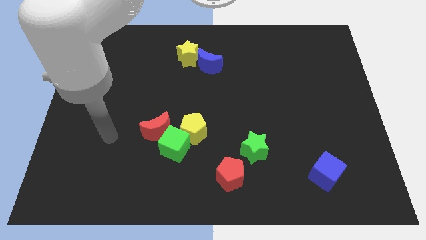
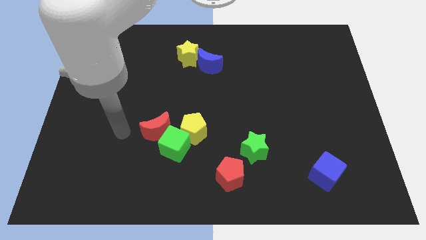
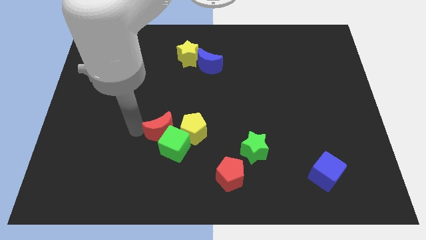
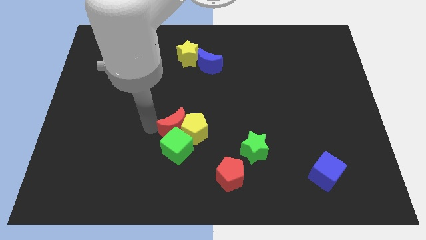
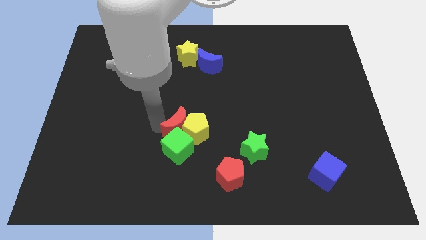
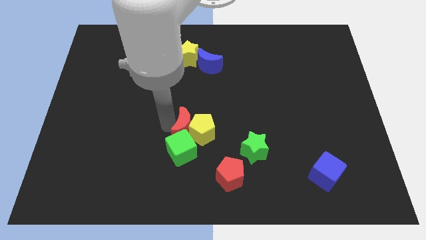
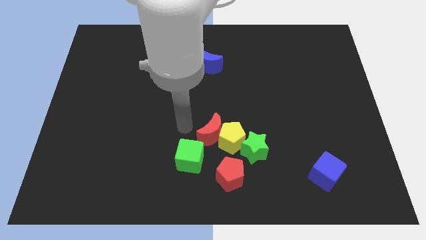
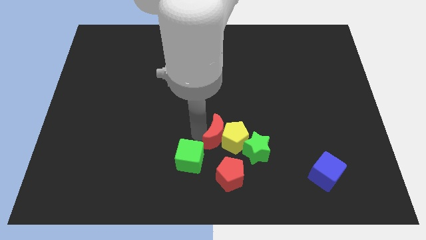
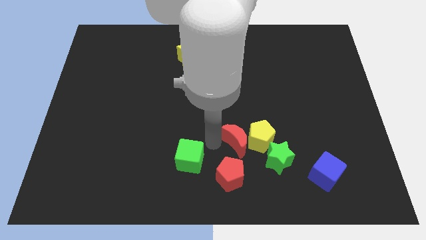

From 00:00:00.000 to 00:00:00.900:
separate the green cube from the yellow pentagon and red moon

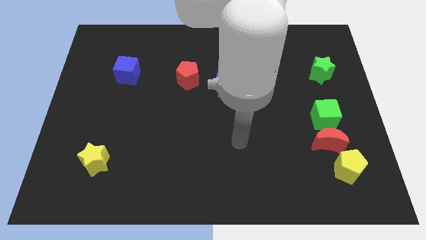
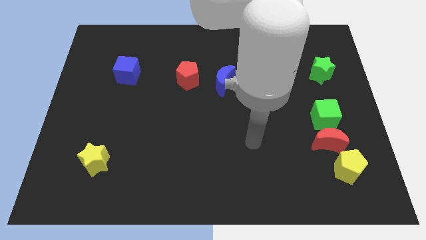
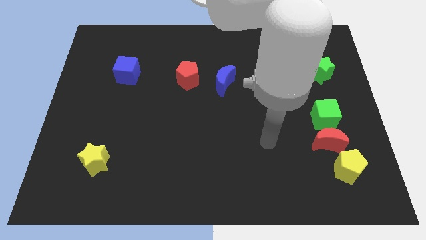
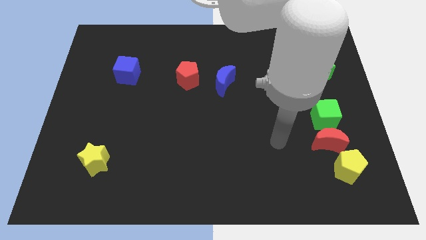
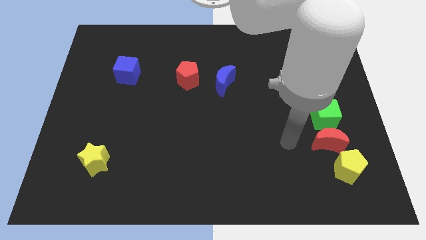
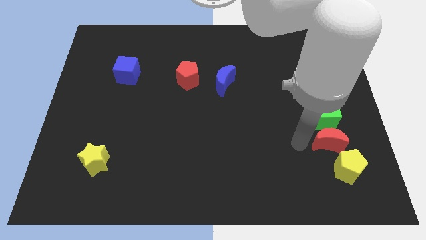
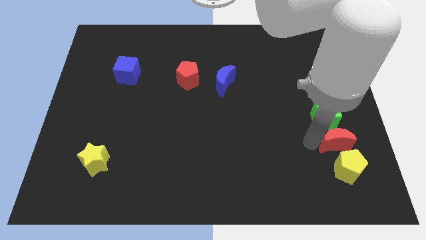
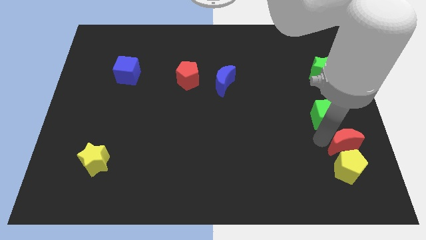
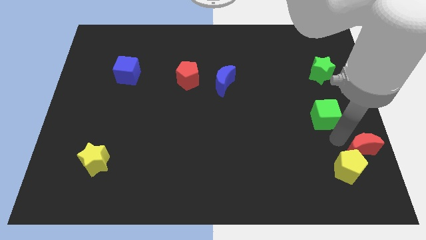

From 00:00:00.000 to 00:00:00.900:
separate the green cube from the red moon

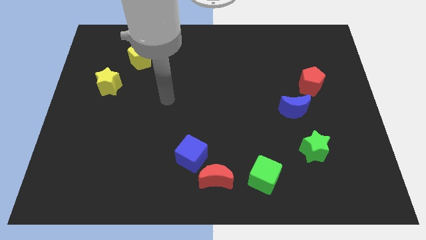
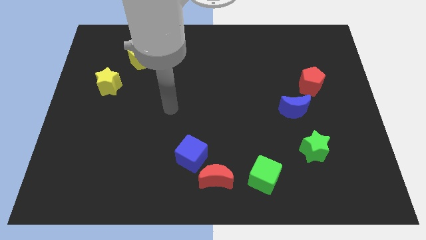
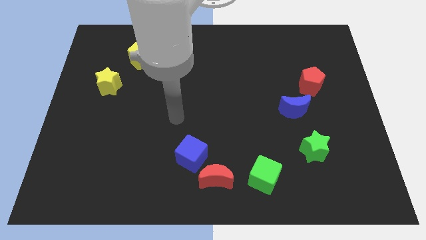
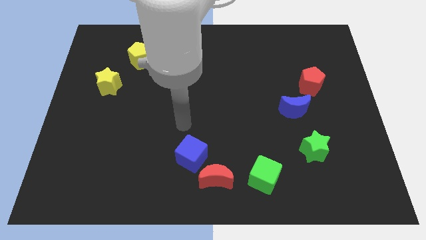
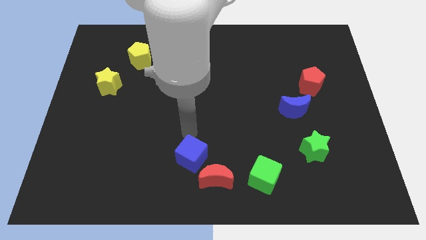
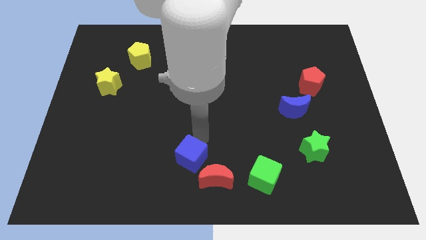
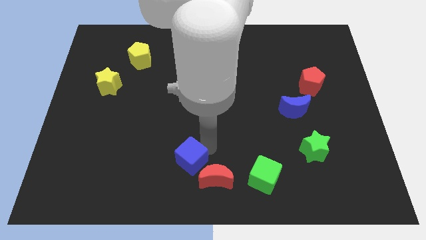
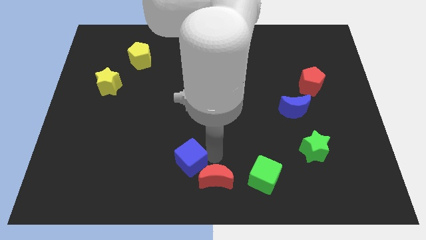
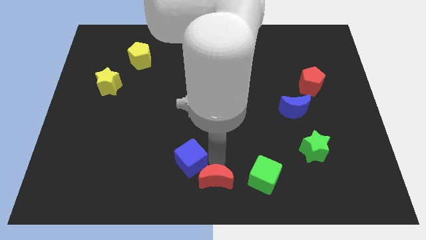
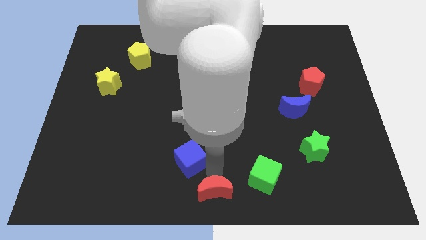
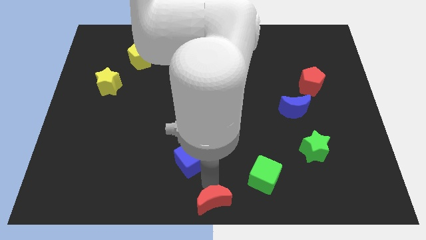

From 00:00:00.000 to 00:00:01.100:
move the blue cube away from the red moon

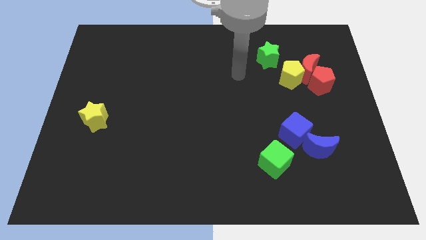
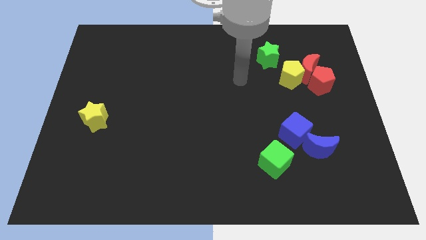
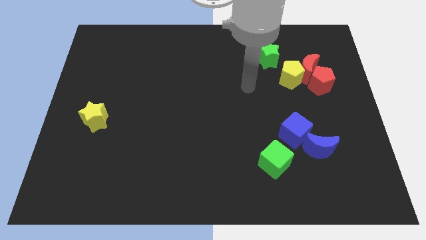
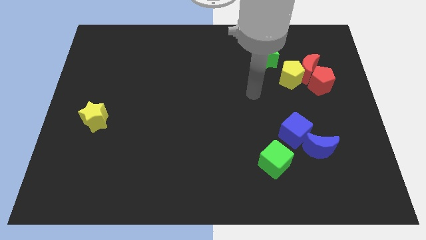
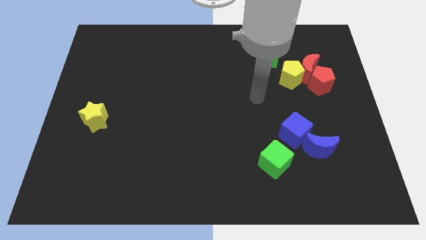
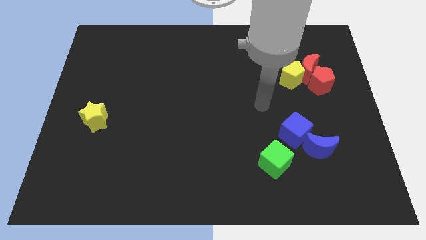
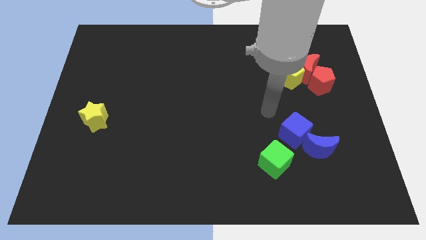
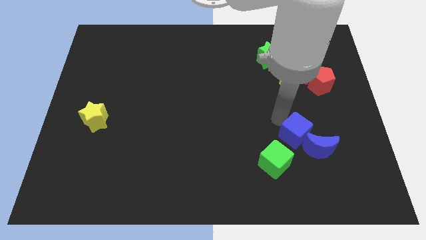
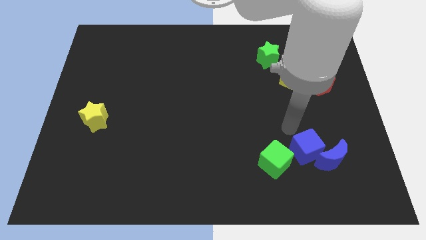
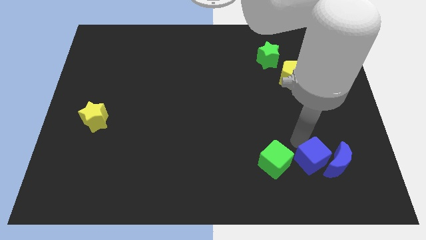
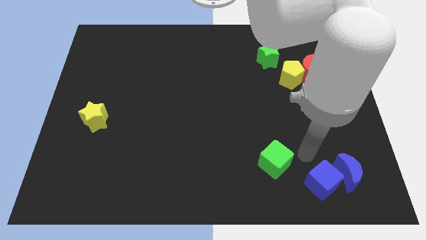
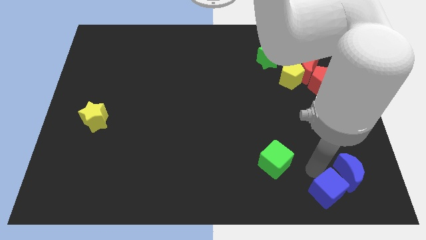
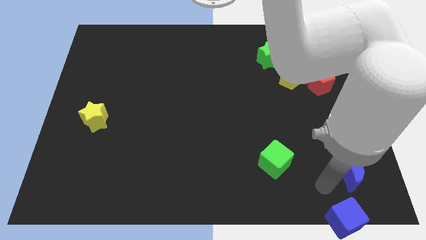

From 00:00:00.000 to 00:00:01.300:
pull the blue moon apart from the blue cube

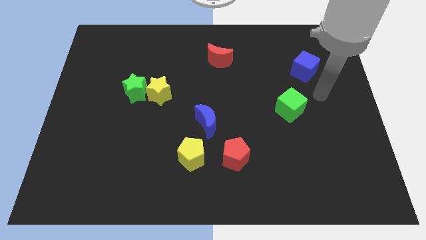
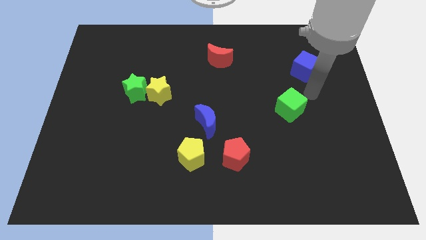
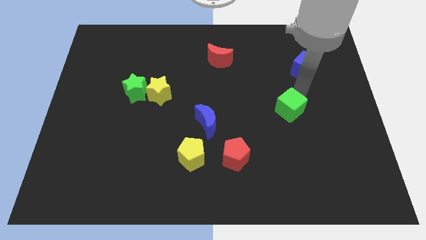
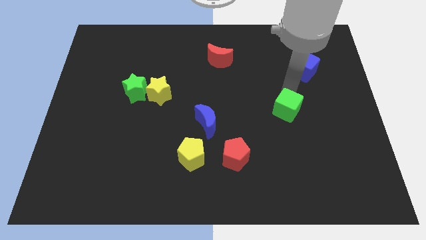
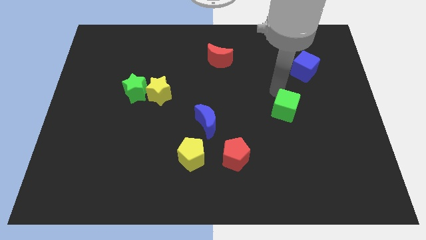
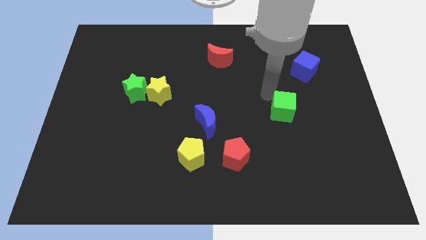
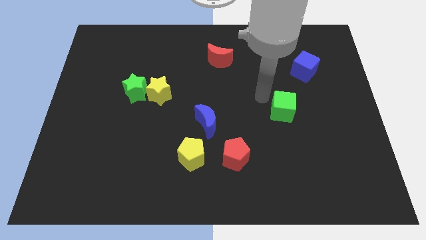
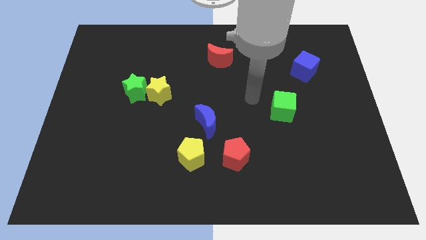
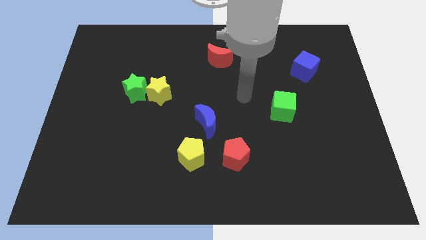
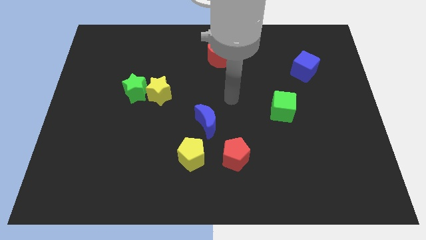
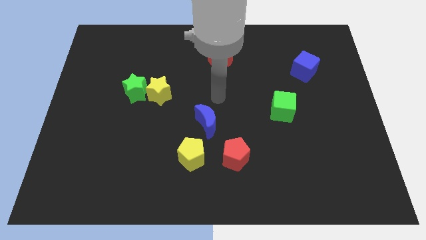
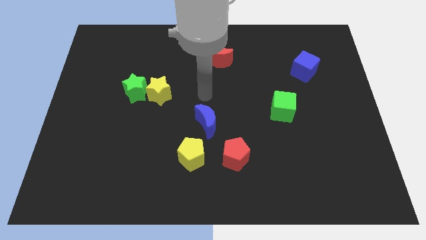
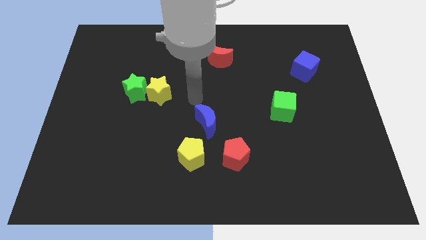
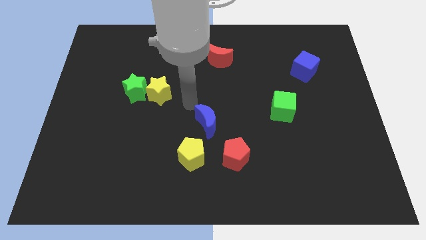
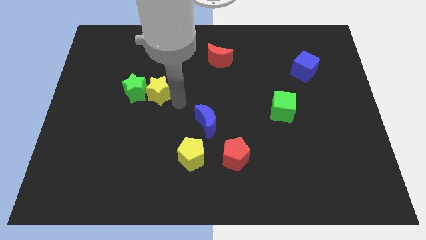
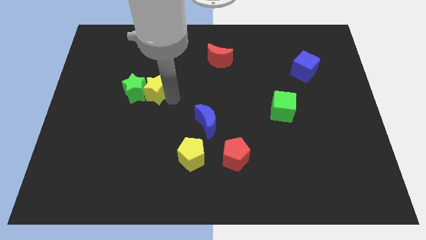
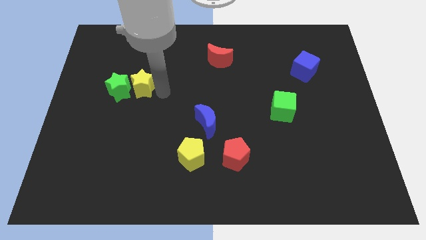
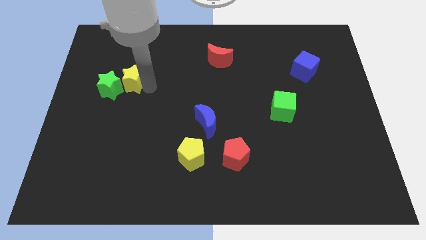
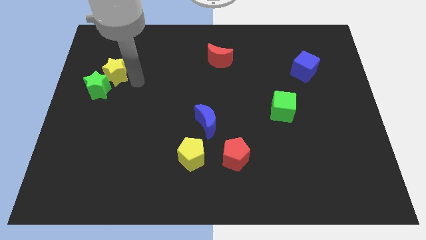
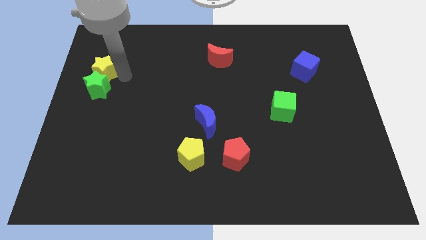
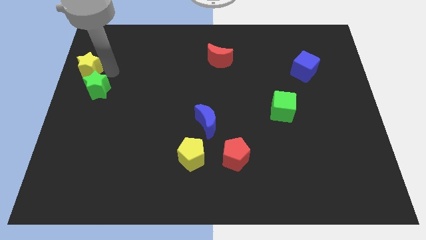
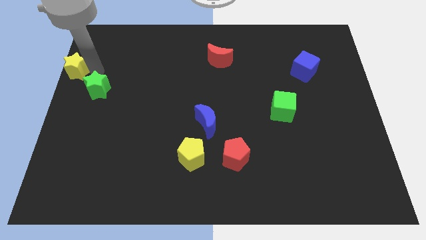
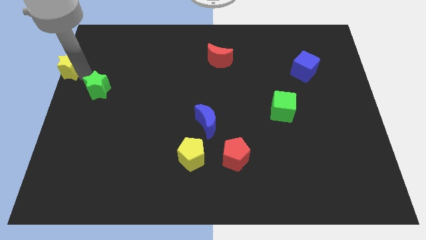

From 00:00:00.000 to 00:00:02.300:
move the green star away from the yellow star

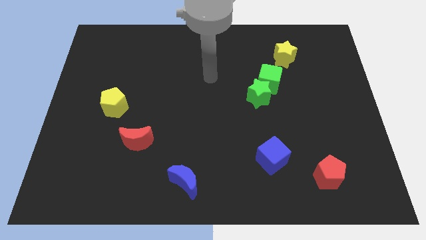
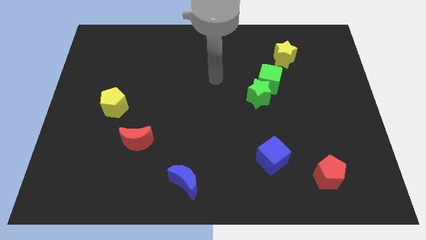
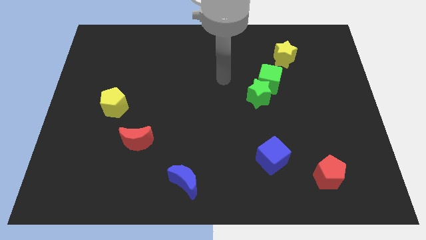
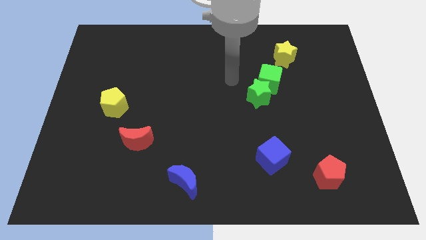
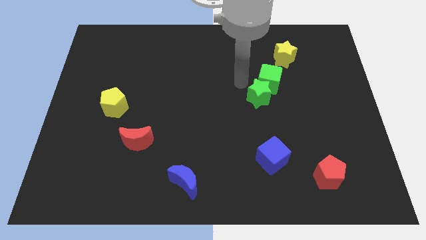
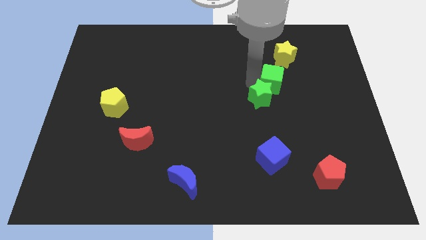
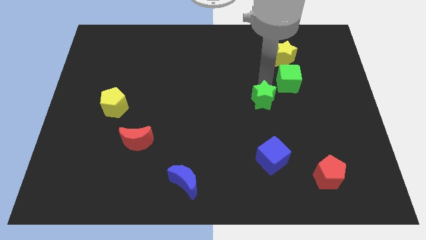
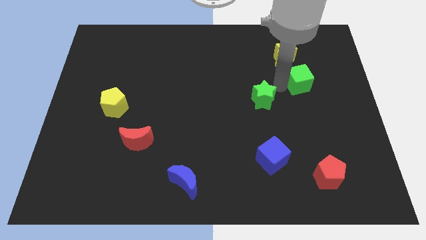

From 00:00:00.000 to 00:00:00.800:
pull the green star apart from the green cube

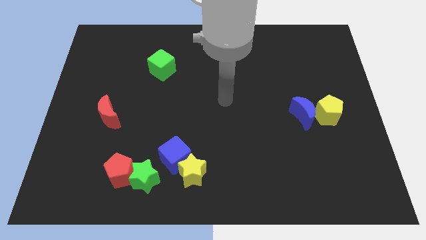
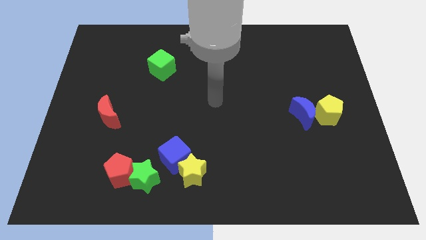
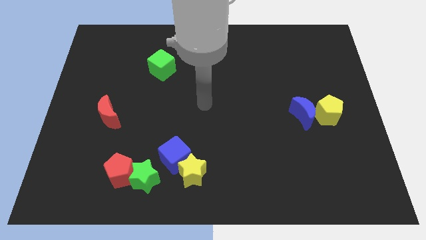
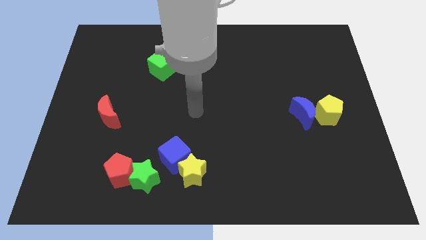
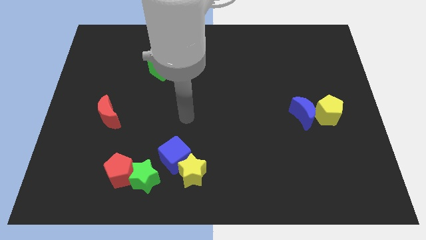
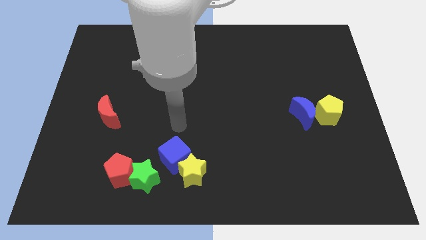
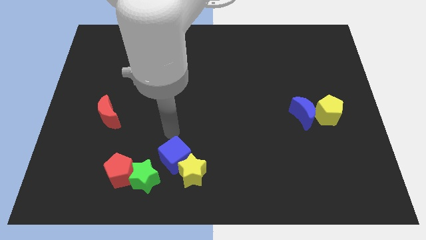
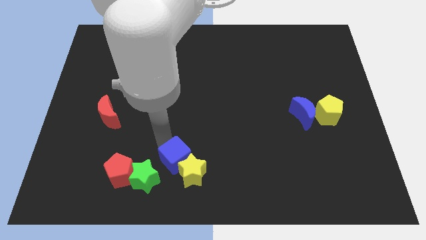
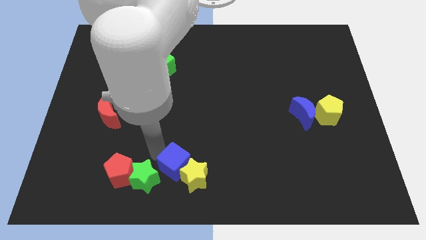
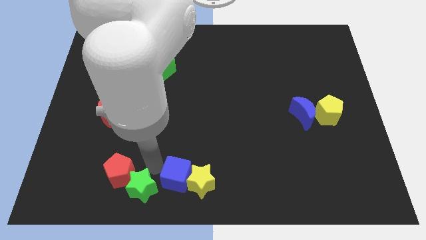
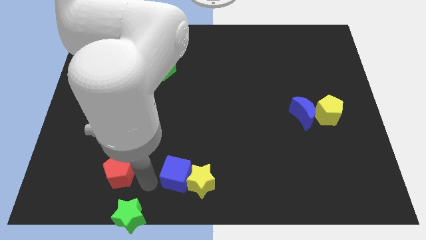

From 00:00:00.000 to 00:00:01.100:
move the red pentagon away from the green star

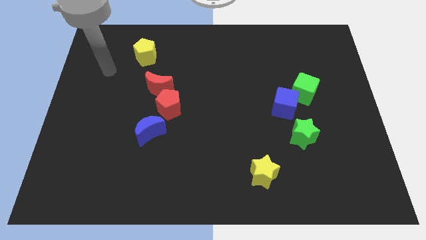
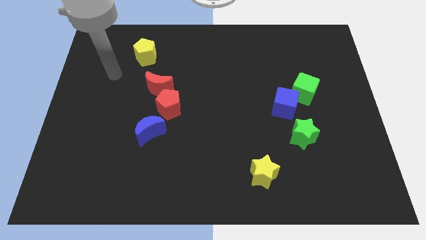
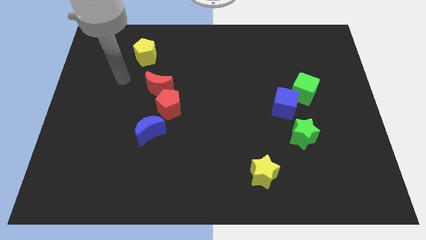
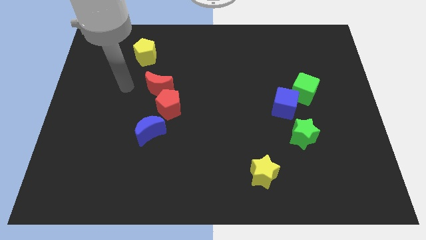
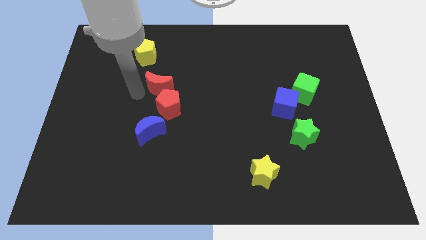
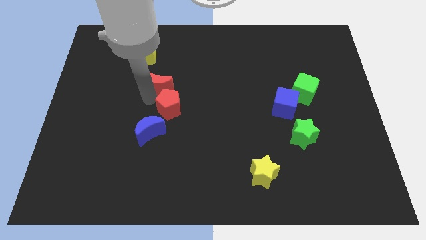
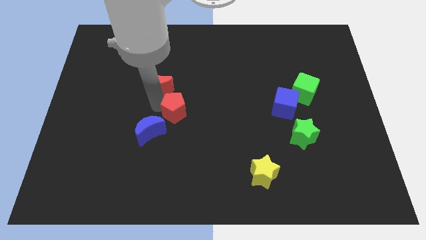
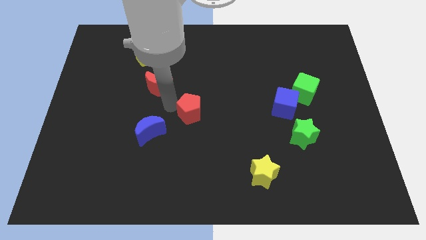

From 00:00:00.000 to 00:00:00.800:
separate the red moon from the red pentagon

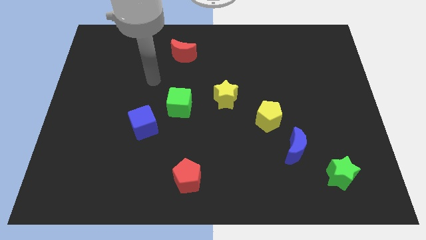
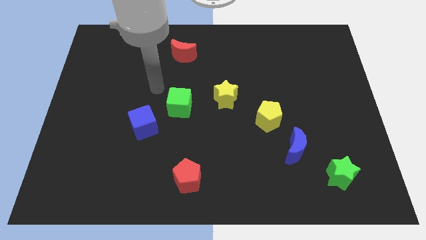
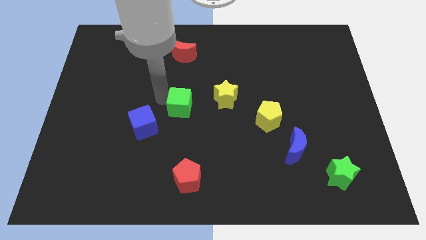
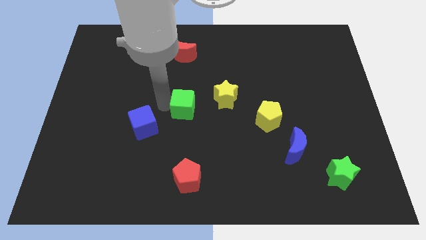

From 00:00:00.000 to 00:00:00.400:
pull the blue cube apart from the green cube
